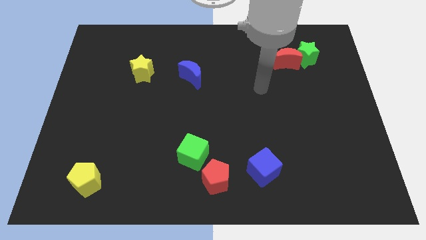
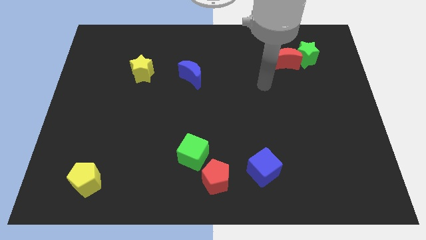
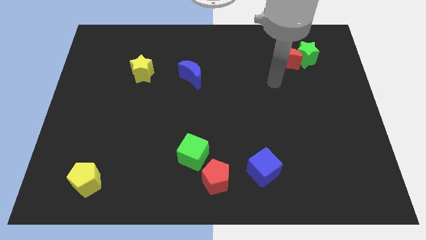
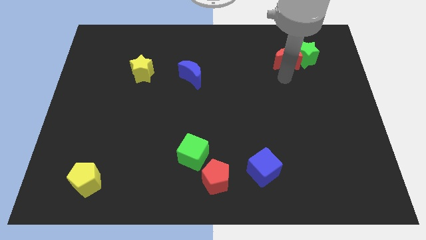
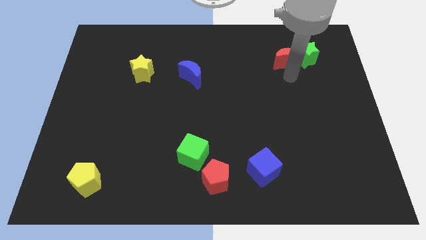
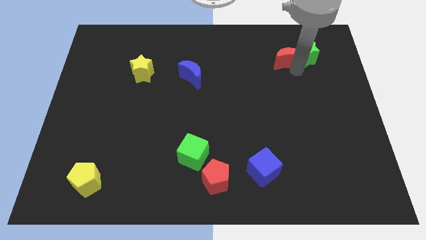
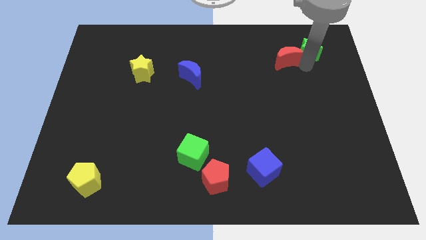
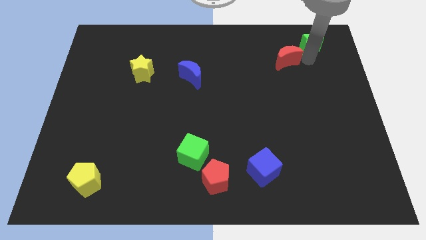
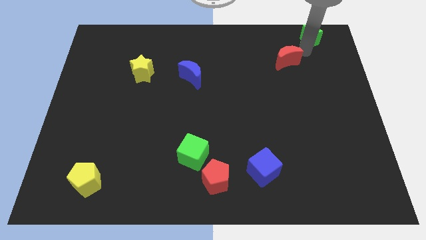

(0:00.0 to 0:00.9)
pull the red moon apart from the green star

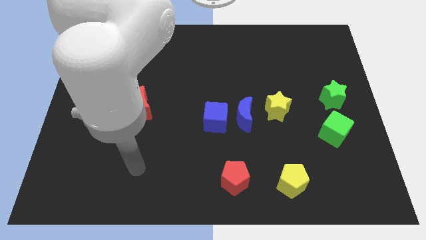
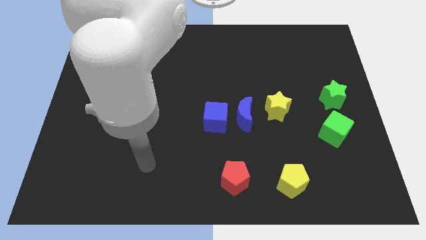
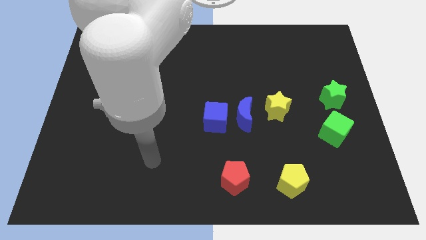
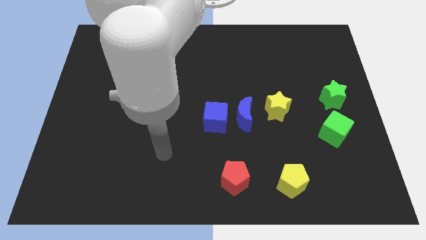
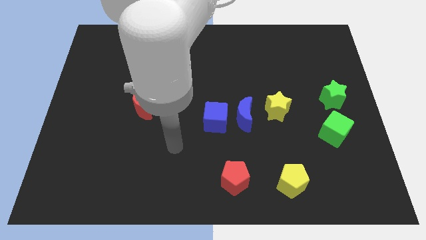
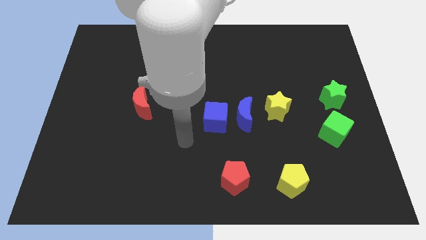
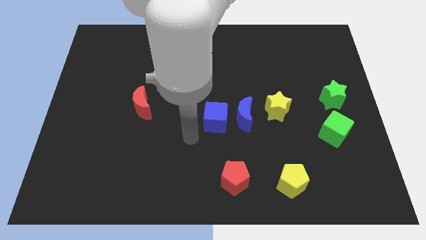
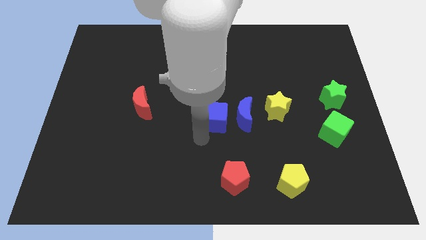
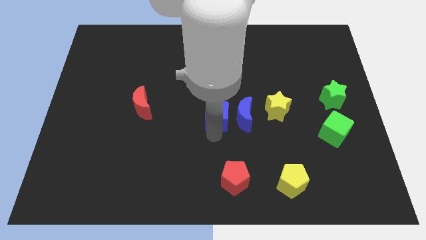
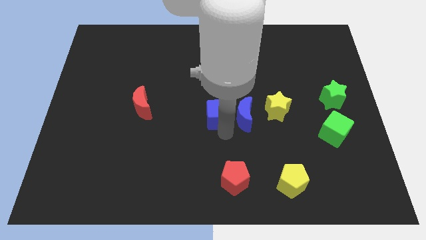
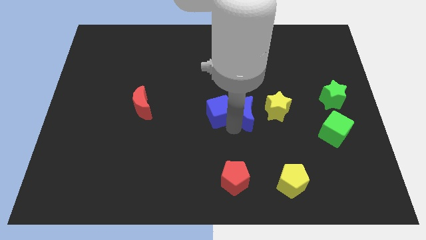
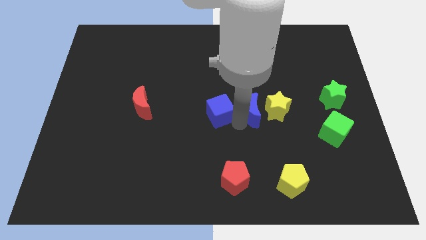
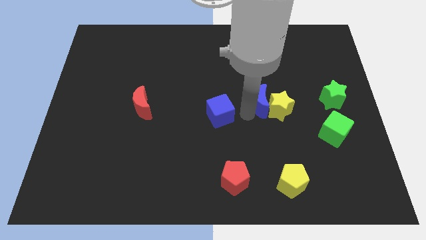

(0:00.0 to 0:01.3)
separate the blue cube from the blue moon

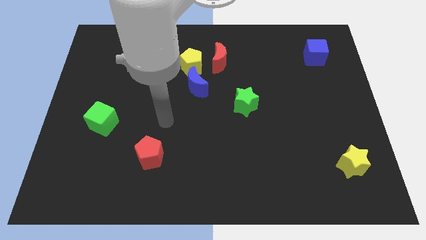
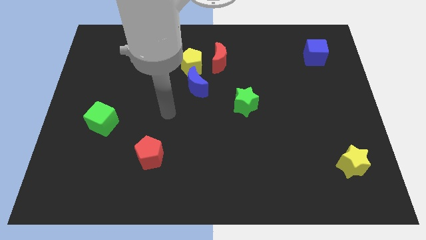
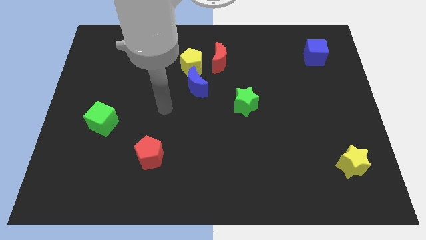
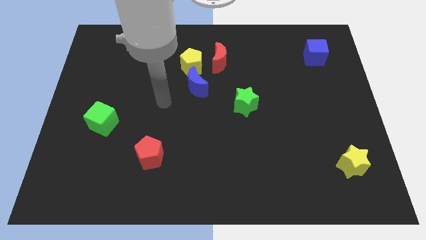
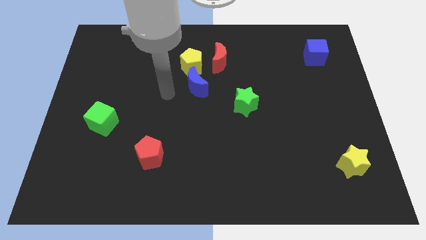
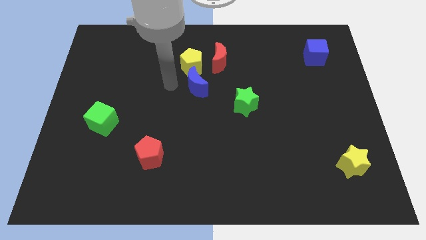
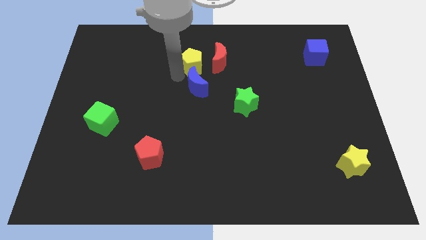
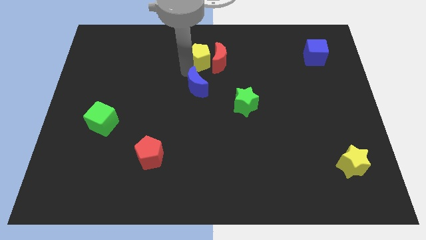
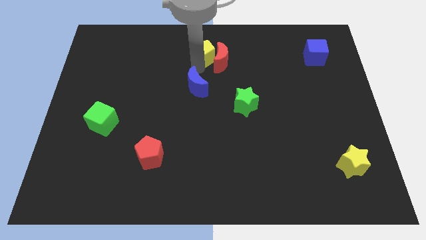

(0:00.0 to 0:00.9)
pull the blue moon apart from the yellow pentagon

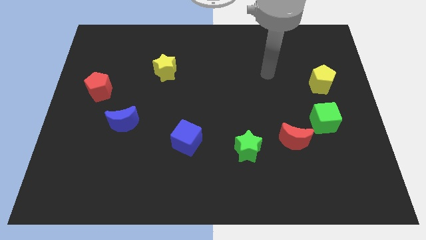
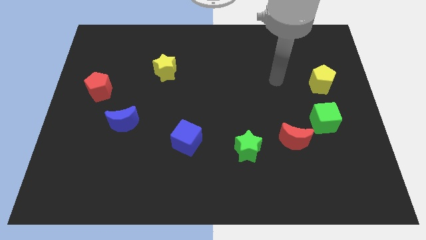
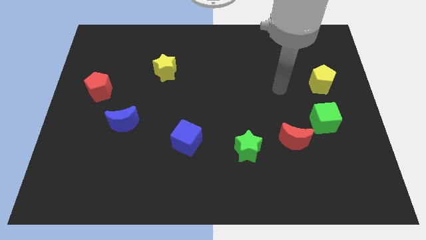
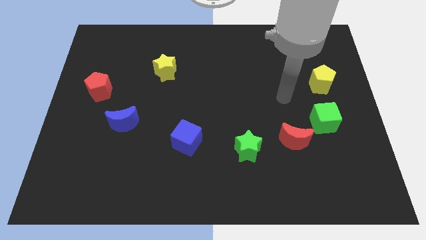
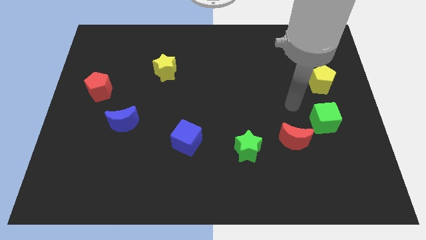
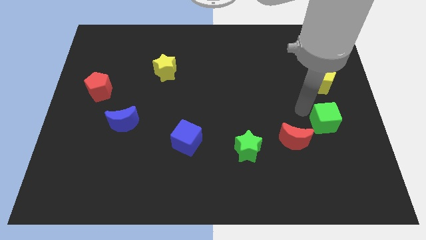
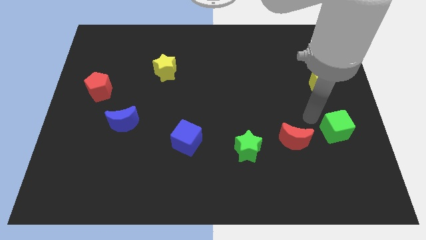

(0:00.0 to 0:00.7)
move the red moon away from the green cube

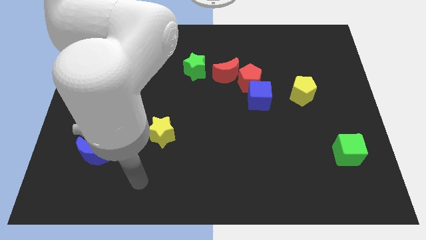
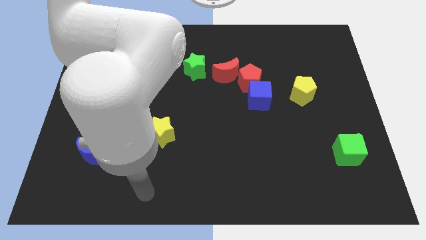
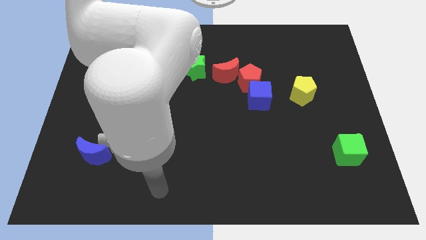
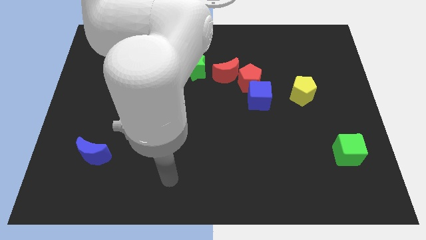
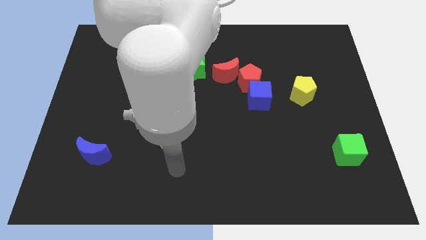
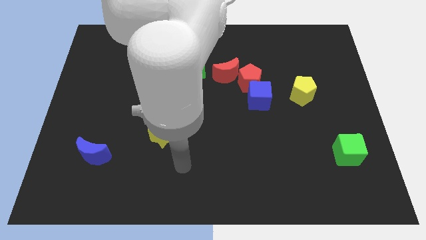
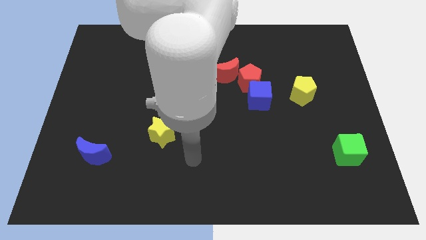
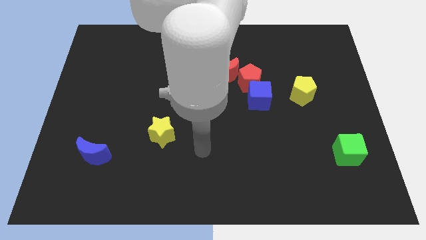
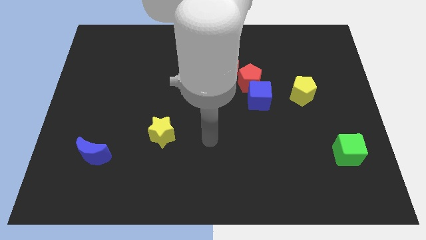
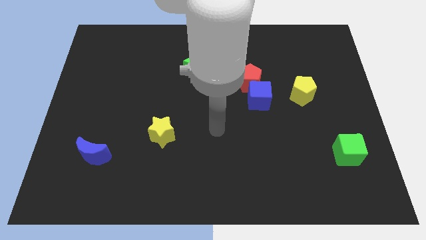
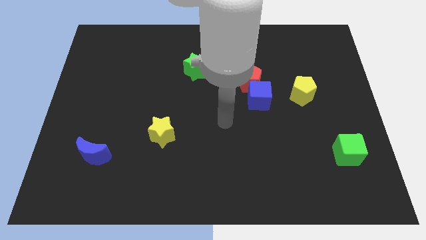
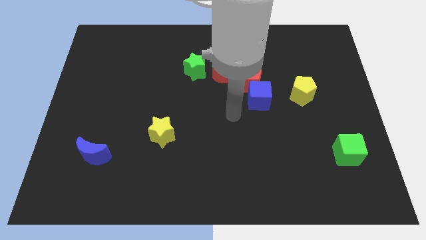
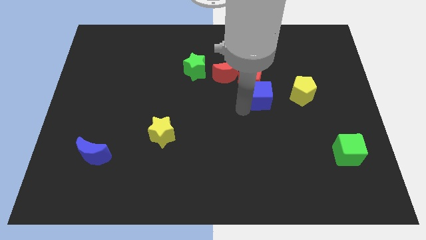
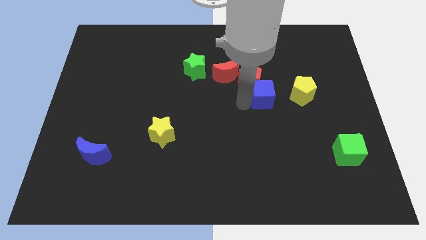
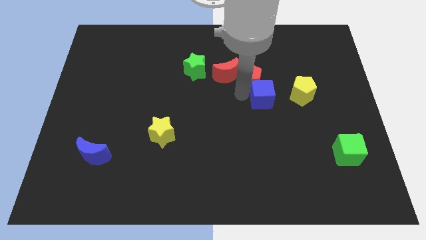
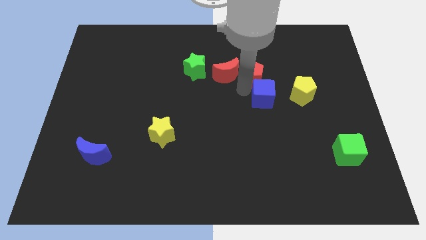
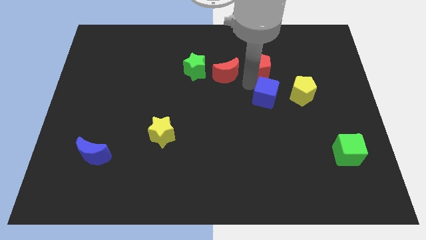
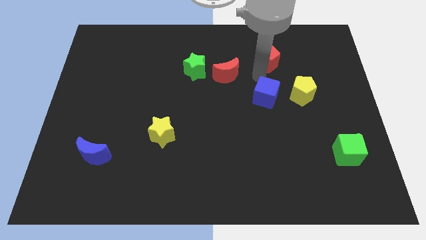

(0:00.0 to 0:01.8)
separate the blue cube from the red pentagon

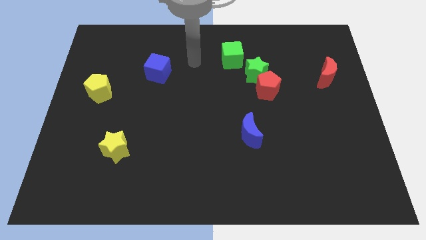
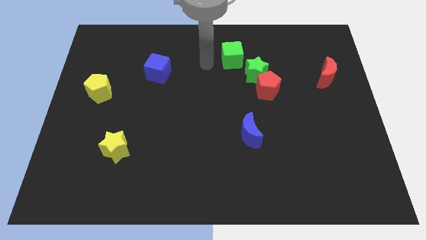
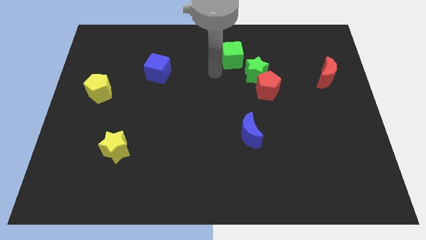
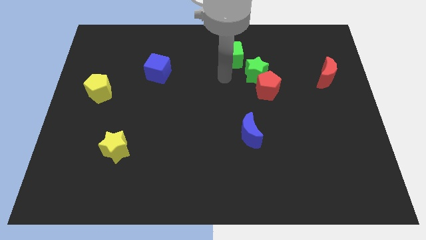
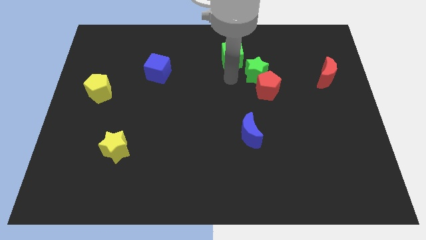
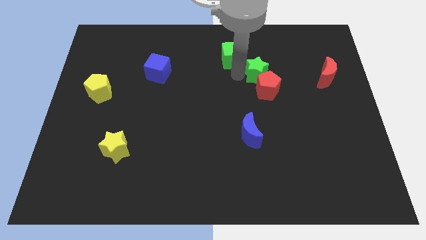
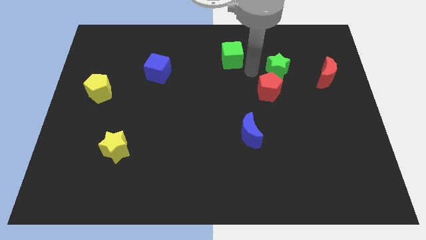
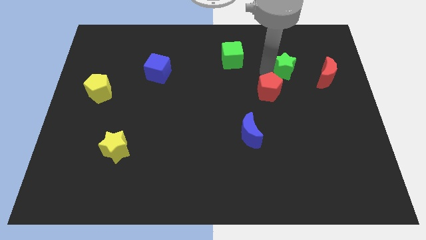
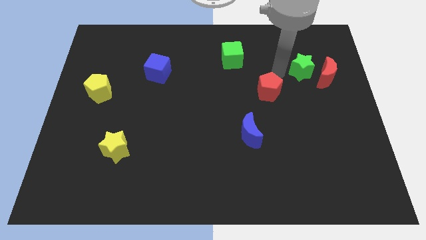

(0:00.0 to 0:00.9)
pull the red pentagon apart from the green star

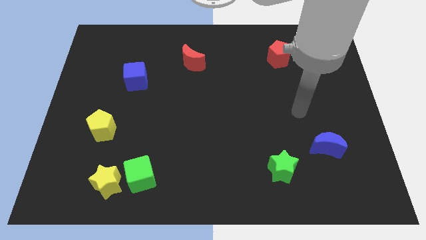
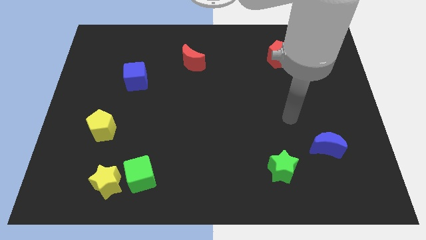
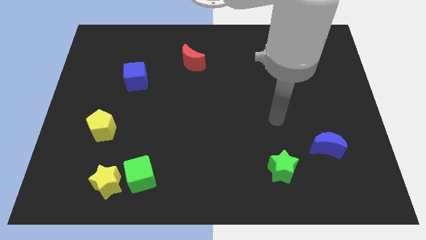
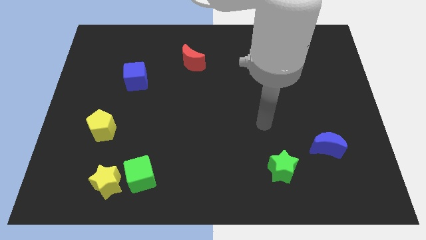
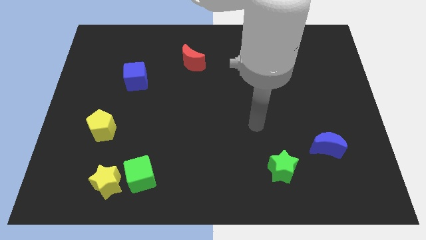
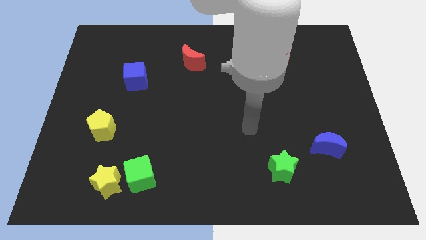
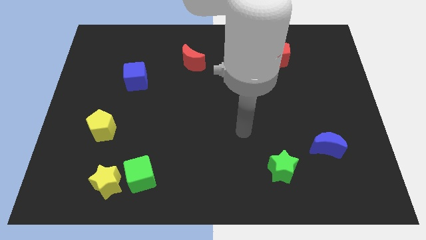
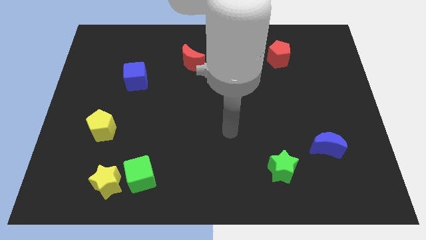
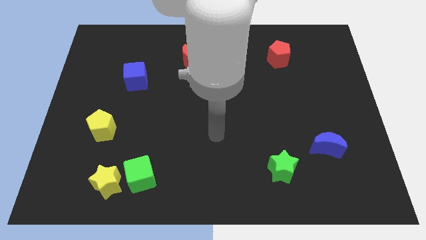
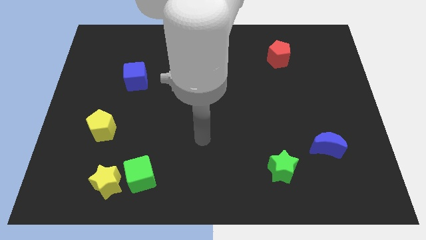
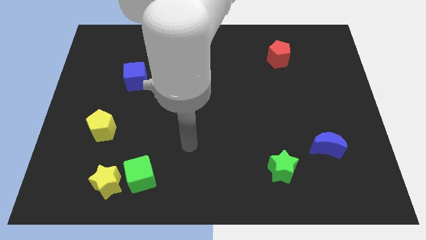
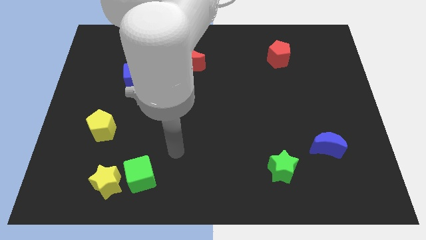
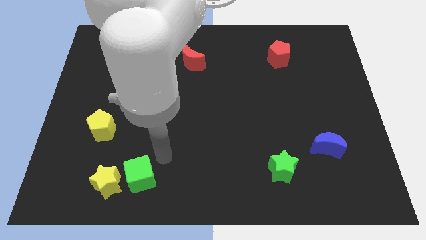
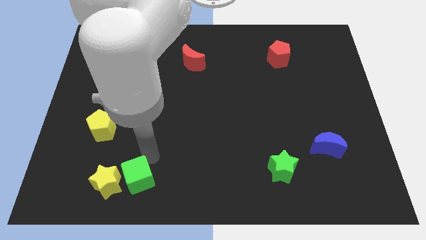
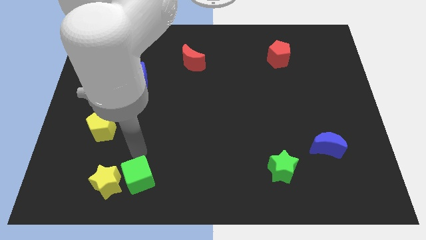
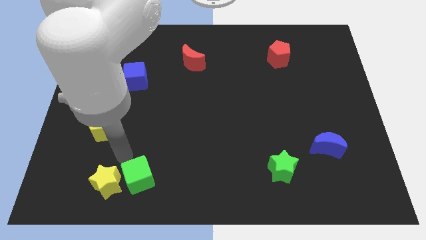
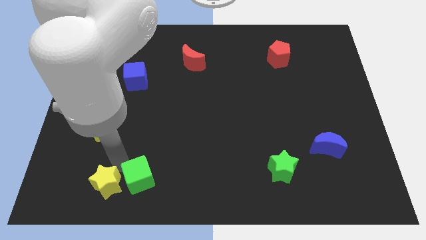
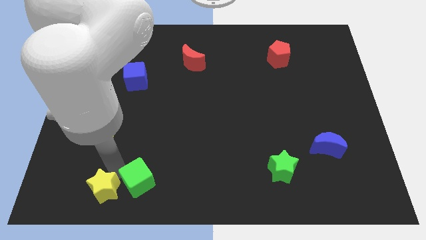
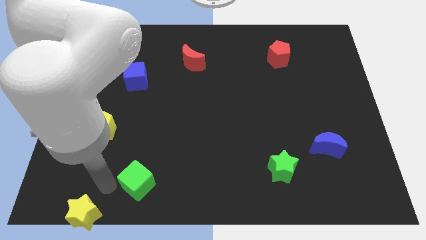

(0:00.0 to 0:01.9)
move the green cube away from the yellow star

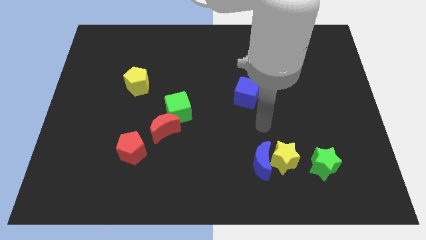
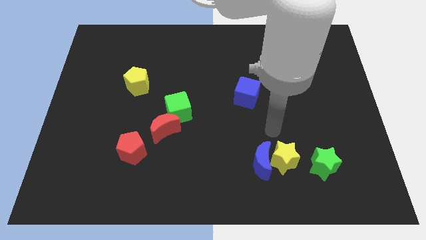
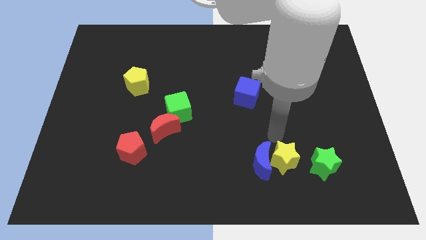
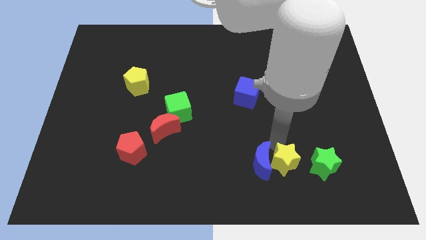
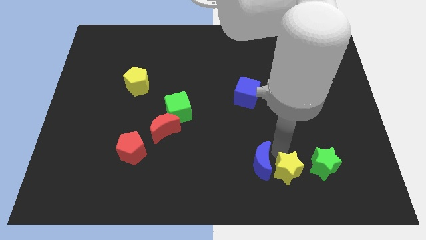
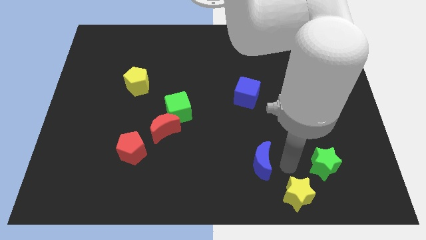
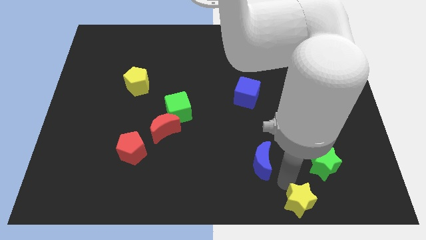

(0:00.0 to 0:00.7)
move the blue moon away from the yellow star

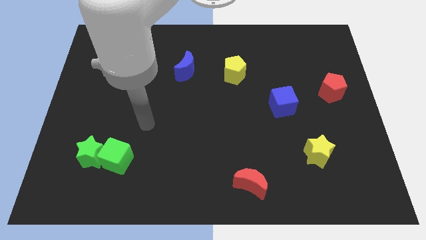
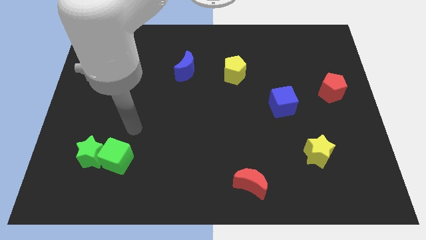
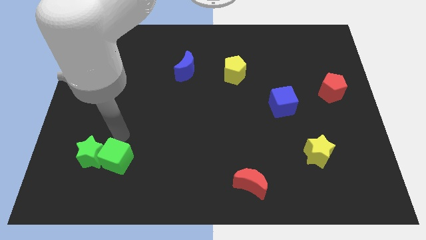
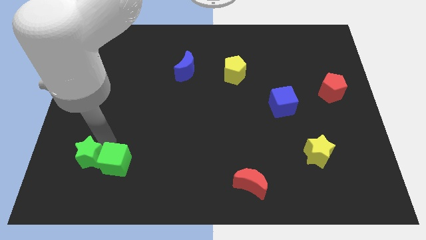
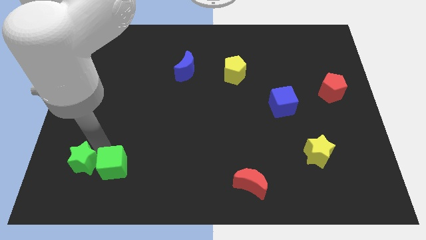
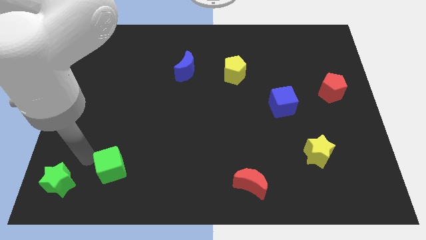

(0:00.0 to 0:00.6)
pull the green cube apart from the green star
